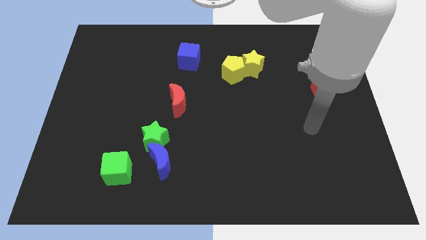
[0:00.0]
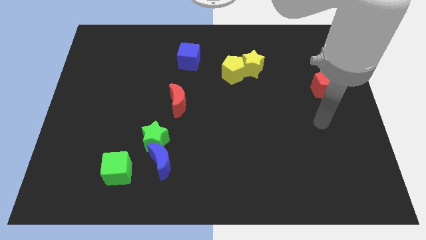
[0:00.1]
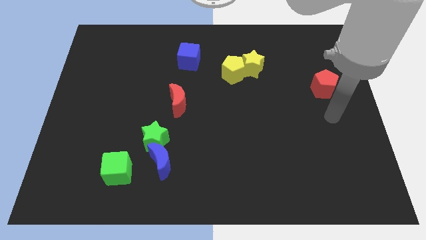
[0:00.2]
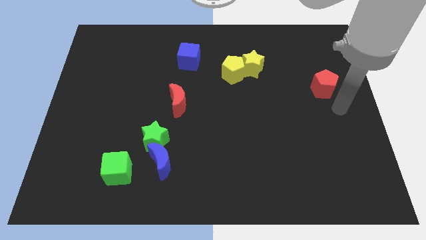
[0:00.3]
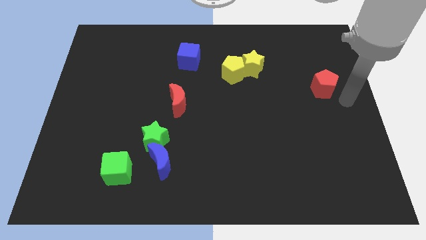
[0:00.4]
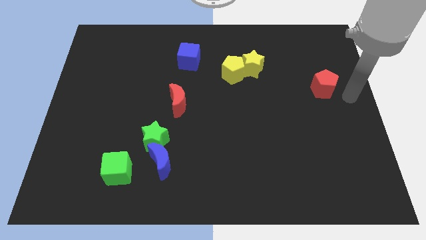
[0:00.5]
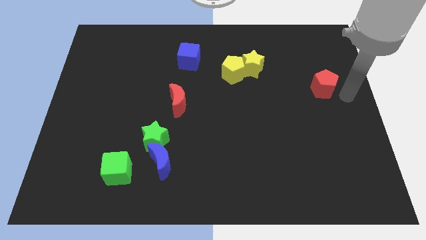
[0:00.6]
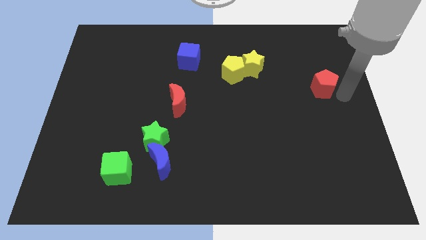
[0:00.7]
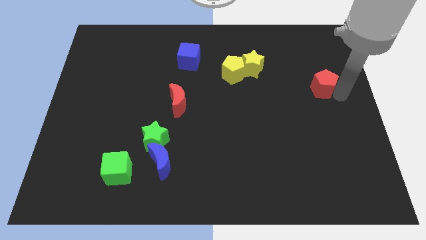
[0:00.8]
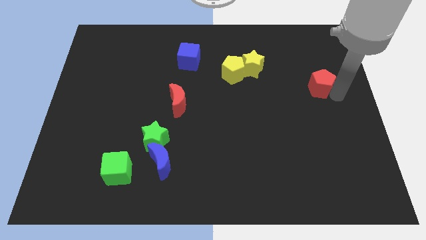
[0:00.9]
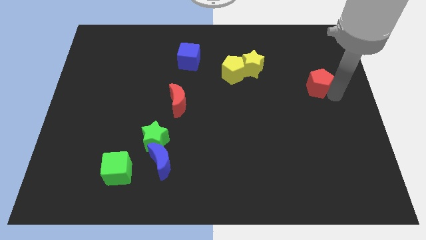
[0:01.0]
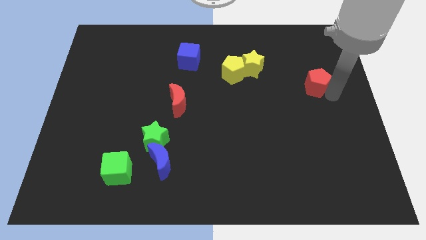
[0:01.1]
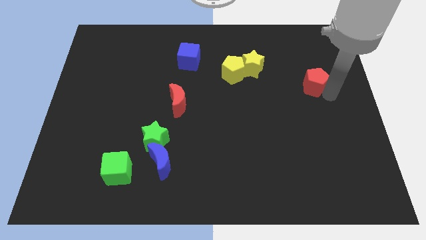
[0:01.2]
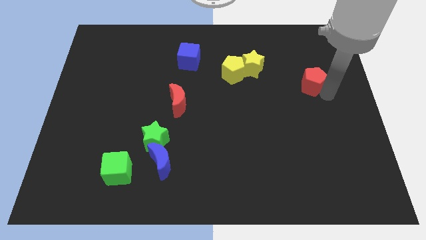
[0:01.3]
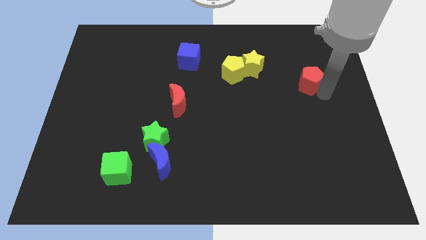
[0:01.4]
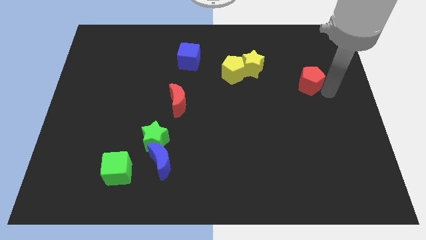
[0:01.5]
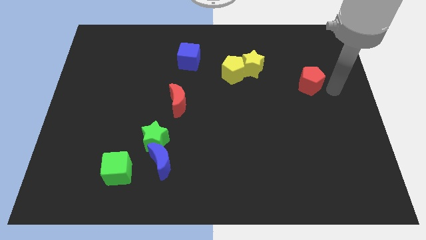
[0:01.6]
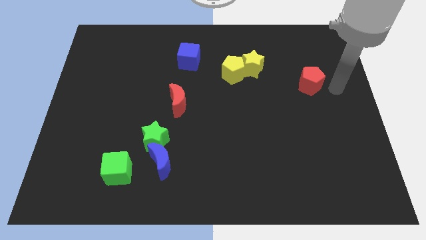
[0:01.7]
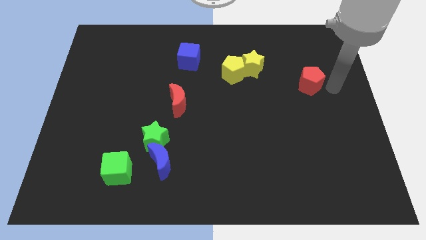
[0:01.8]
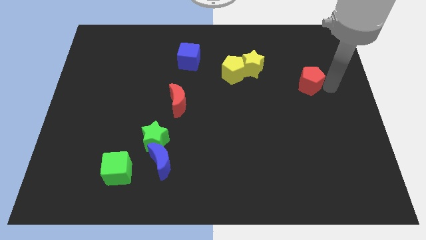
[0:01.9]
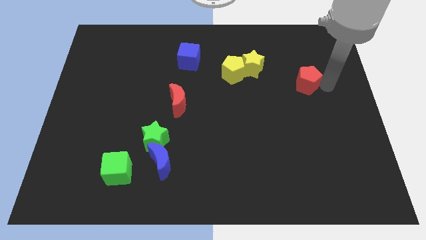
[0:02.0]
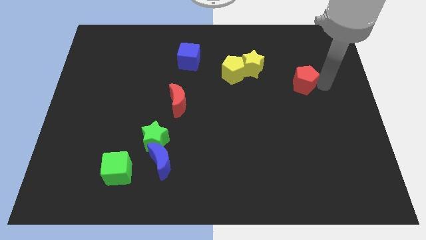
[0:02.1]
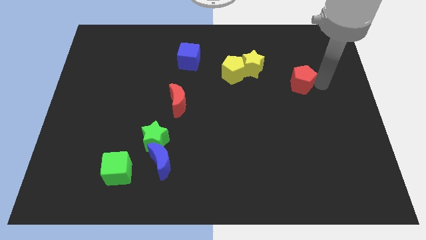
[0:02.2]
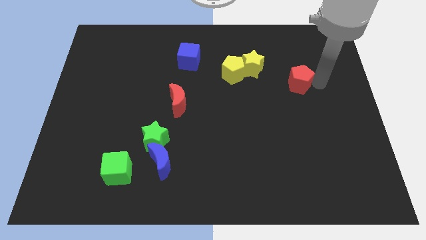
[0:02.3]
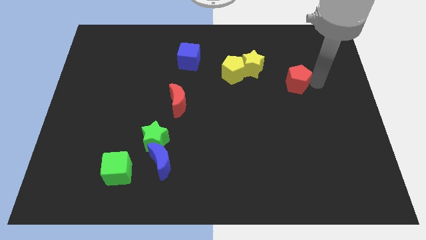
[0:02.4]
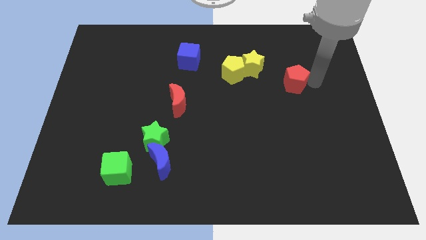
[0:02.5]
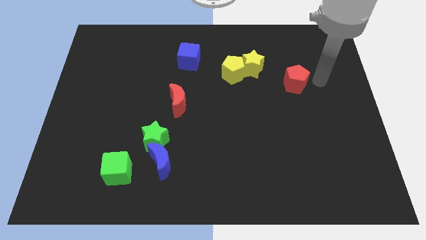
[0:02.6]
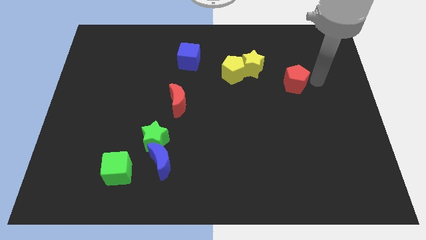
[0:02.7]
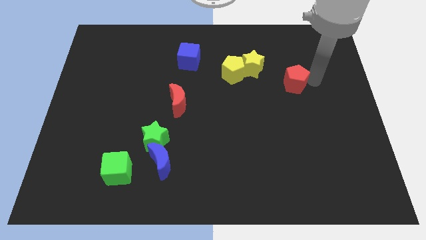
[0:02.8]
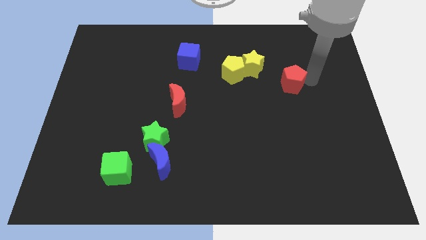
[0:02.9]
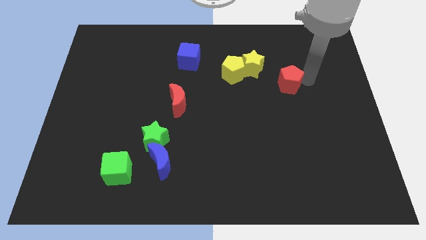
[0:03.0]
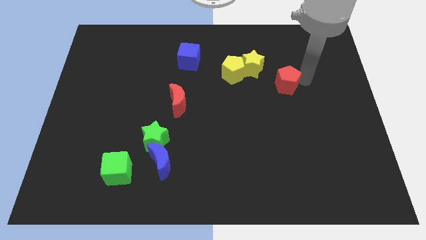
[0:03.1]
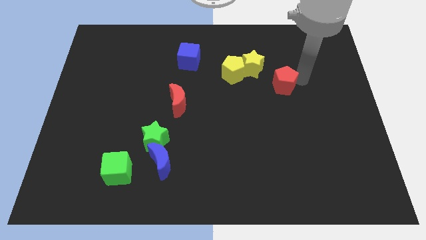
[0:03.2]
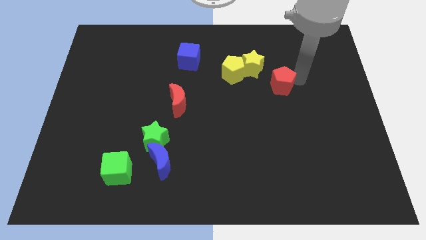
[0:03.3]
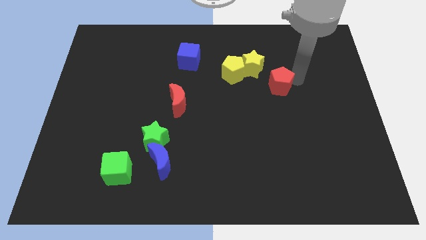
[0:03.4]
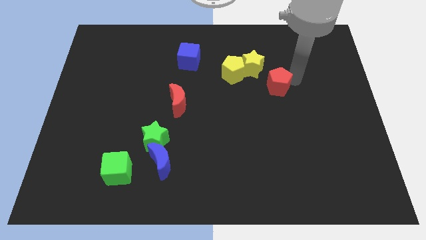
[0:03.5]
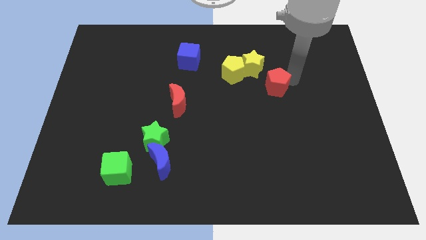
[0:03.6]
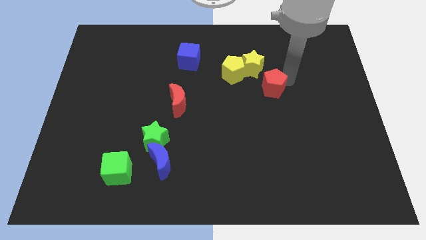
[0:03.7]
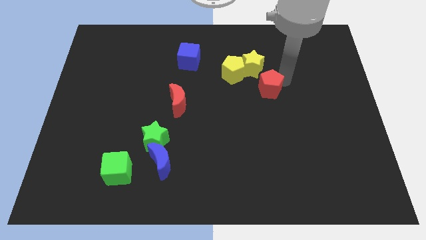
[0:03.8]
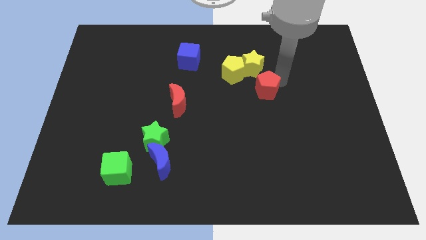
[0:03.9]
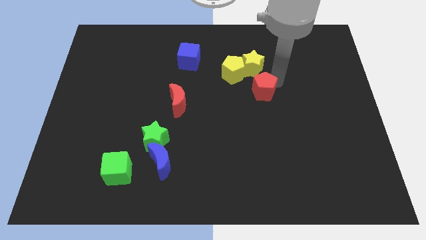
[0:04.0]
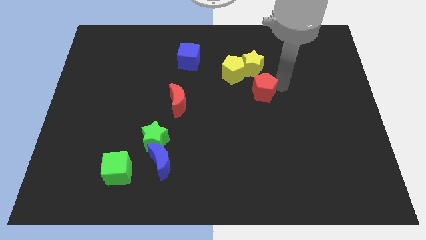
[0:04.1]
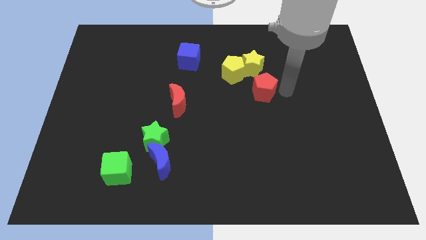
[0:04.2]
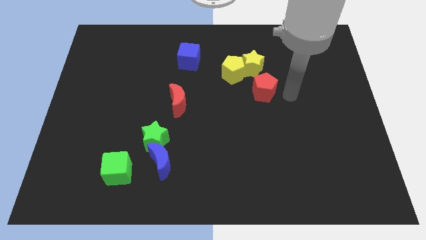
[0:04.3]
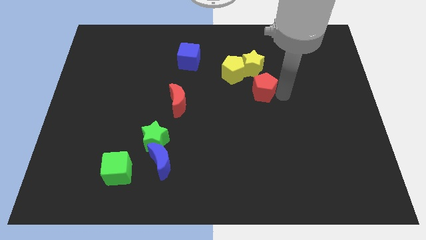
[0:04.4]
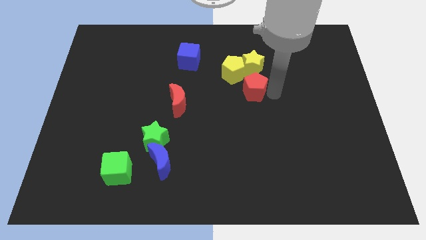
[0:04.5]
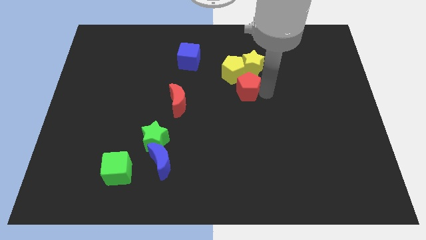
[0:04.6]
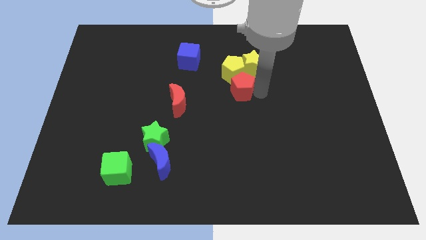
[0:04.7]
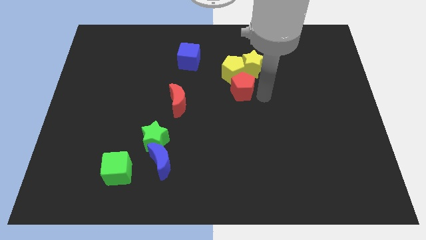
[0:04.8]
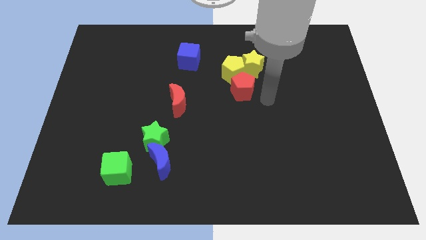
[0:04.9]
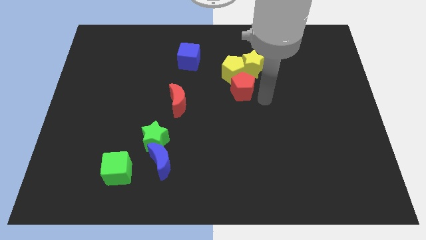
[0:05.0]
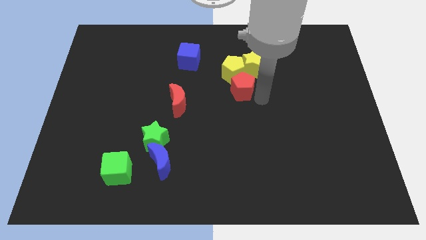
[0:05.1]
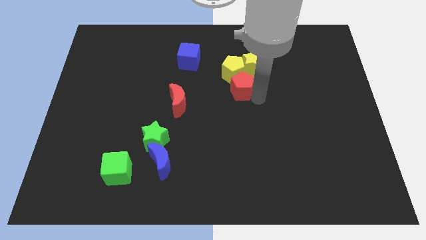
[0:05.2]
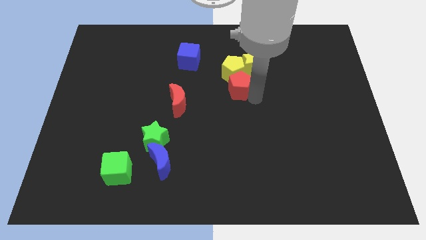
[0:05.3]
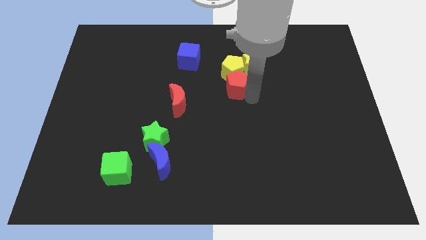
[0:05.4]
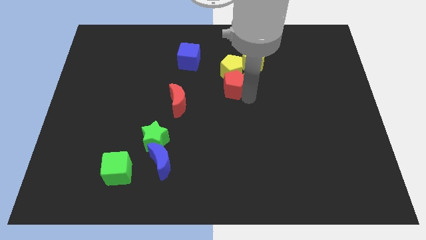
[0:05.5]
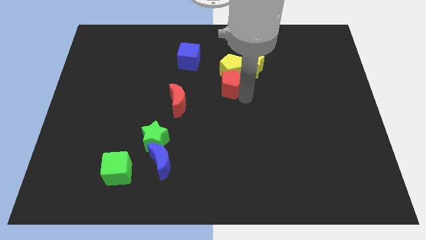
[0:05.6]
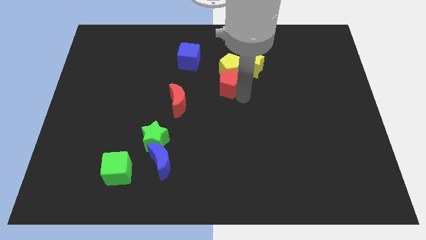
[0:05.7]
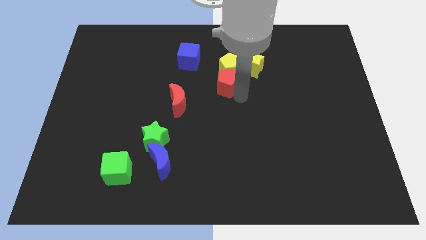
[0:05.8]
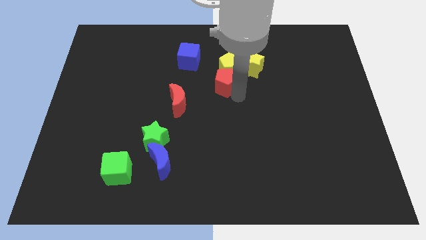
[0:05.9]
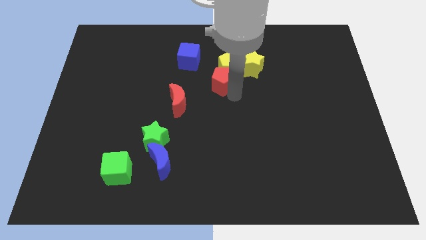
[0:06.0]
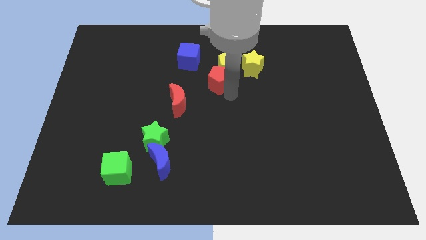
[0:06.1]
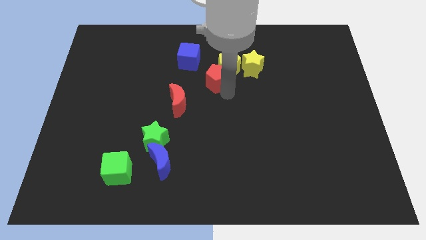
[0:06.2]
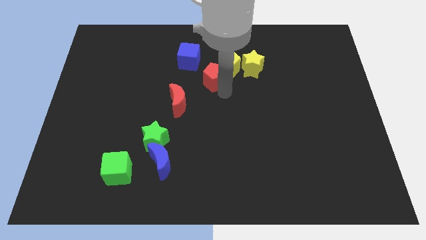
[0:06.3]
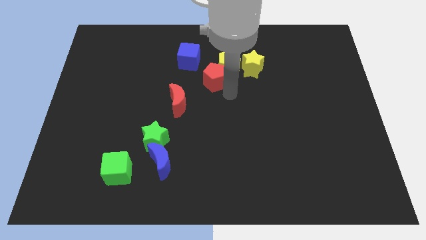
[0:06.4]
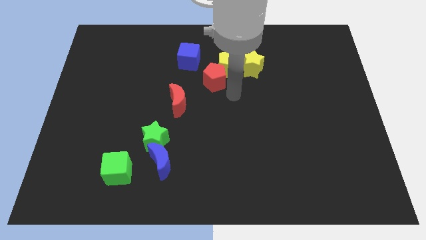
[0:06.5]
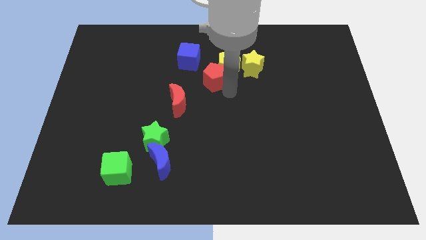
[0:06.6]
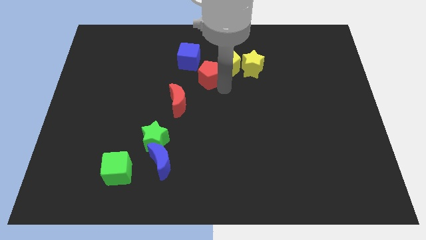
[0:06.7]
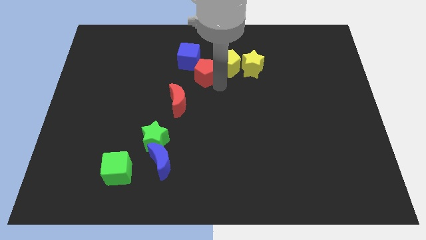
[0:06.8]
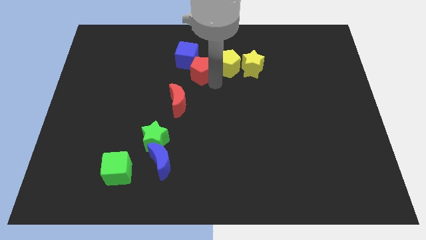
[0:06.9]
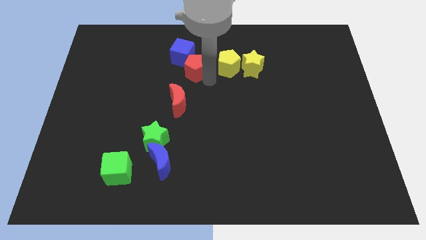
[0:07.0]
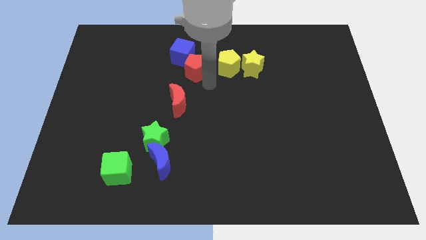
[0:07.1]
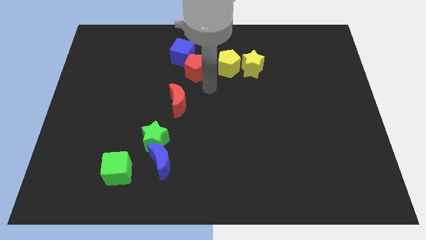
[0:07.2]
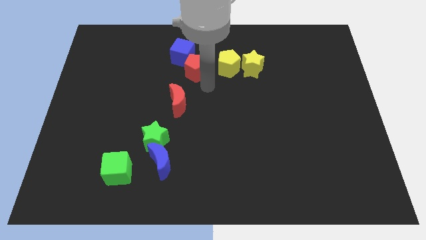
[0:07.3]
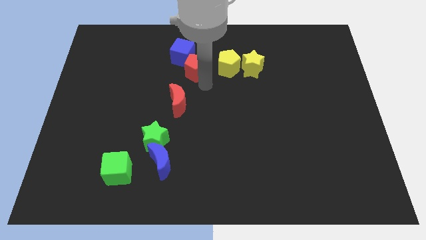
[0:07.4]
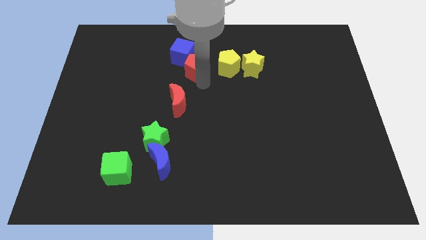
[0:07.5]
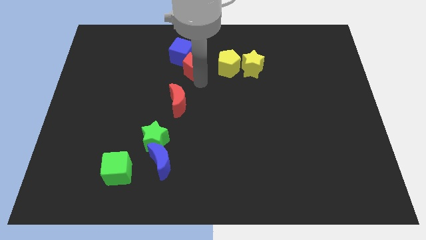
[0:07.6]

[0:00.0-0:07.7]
slide the red pentagon to the blue cube

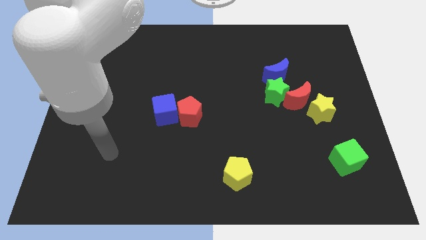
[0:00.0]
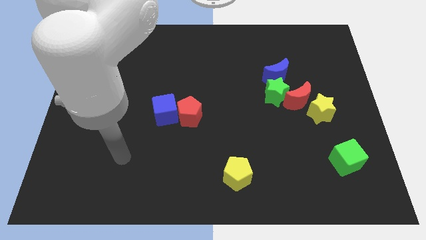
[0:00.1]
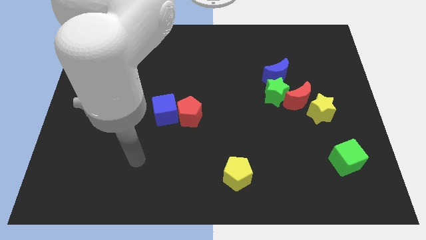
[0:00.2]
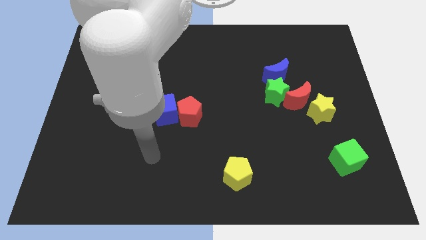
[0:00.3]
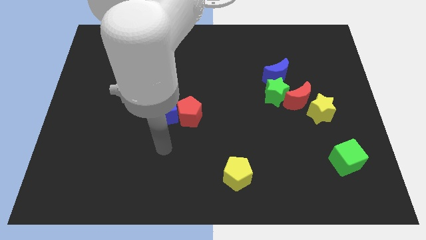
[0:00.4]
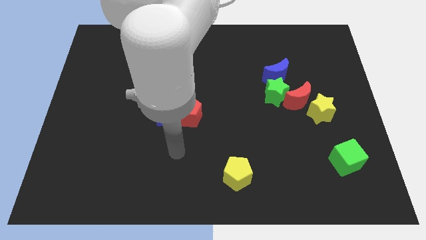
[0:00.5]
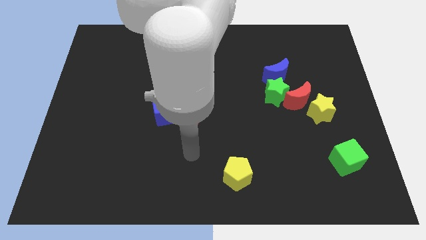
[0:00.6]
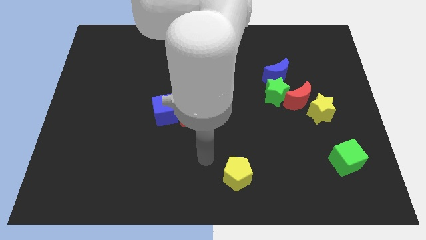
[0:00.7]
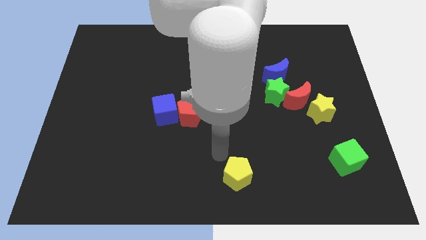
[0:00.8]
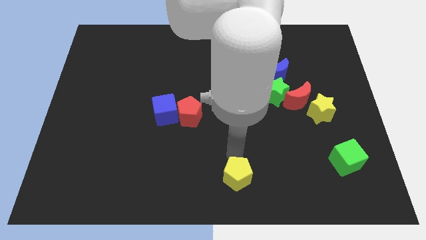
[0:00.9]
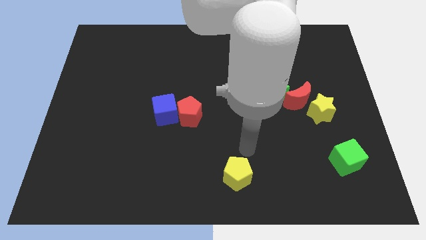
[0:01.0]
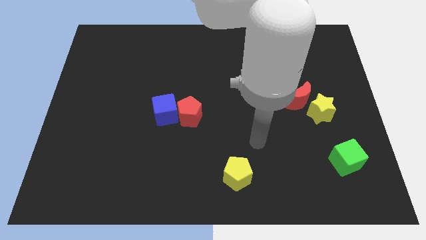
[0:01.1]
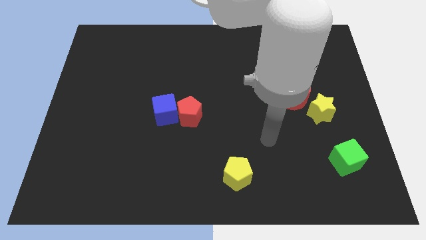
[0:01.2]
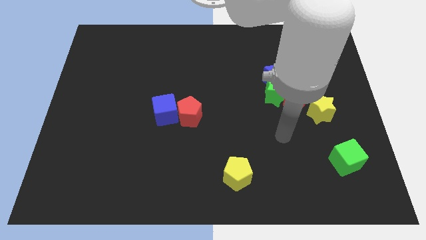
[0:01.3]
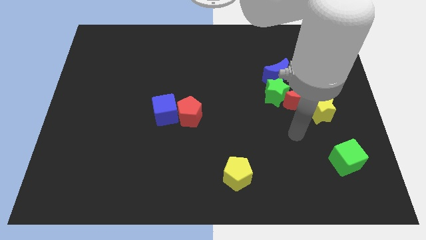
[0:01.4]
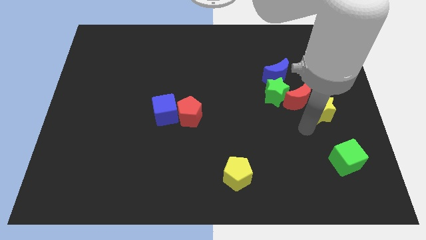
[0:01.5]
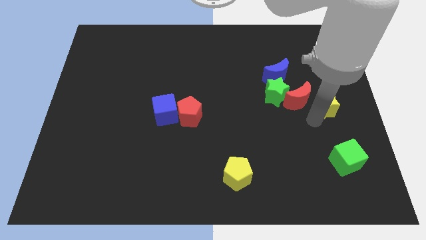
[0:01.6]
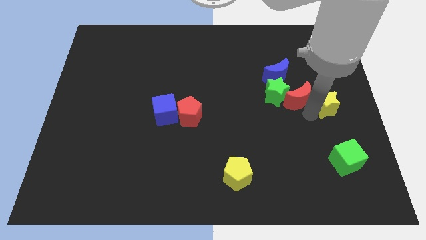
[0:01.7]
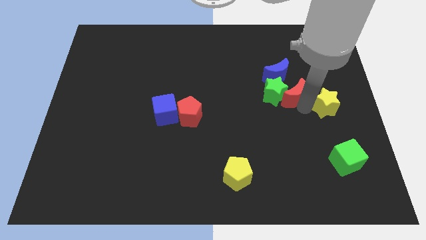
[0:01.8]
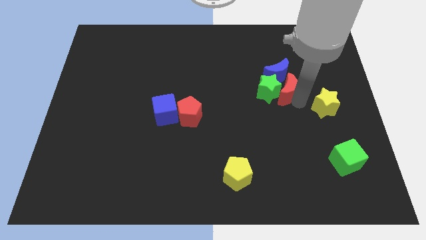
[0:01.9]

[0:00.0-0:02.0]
move the red moon next to the blue moon
